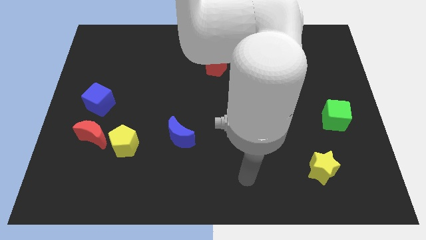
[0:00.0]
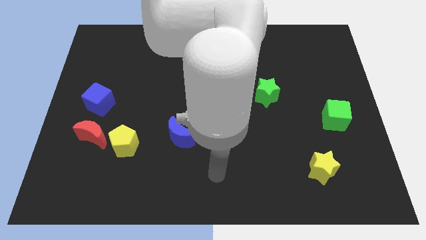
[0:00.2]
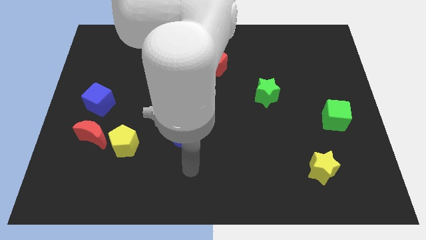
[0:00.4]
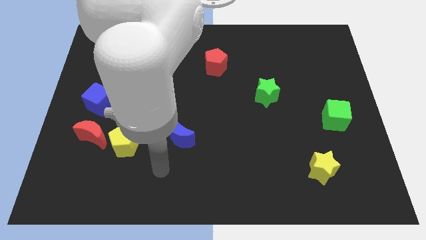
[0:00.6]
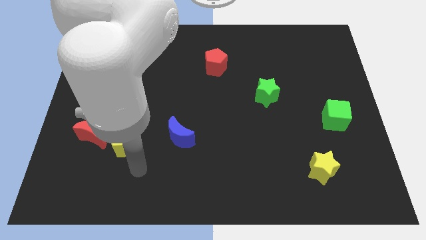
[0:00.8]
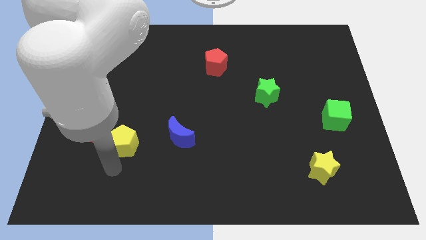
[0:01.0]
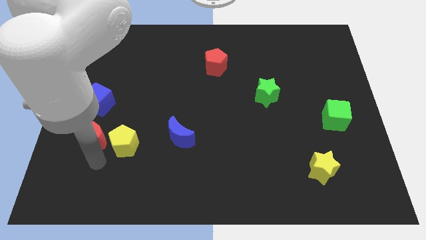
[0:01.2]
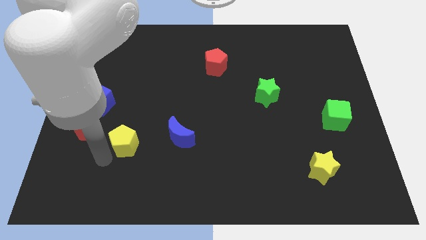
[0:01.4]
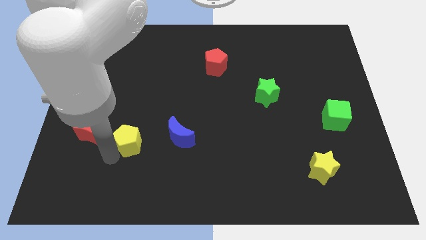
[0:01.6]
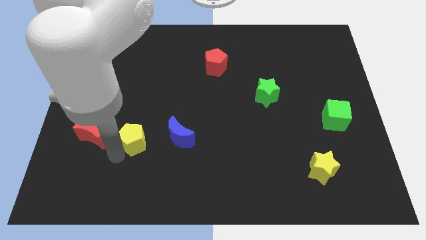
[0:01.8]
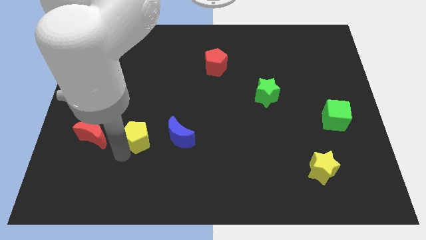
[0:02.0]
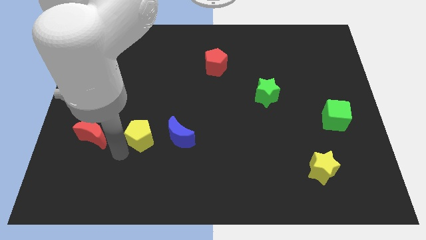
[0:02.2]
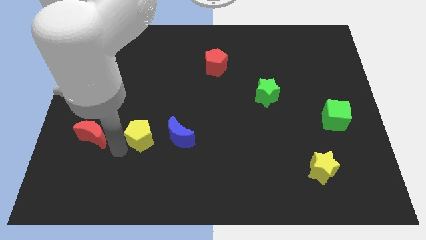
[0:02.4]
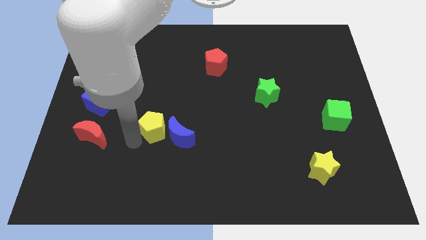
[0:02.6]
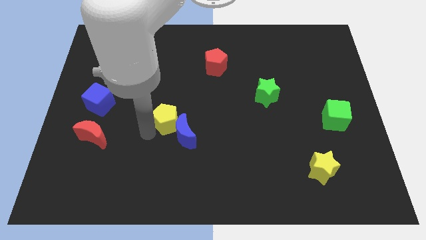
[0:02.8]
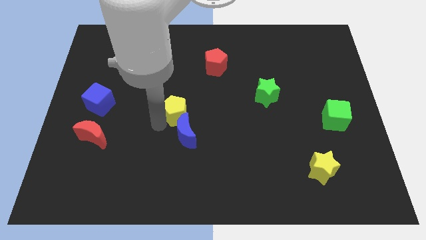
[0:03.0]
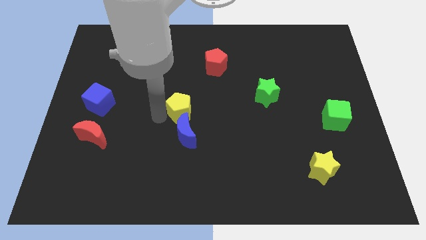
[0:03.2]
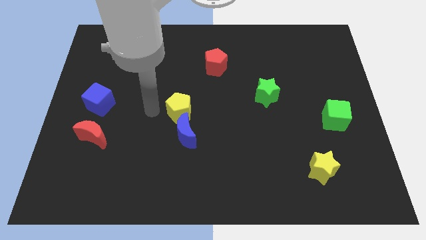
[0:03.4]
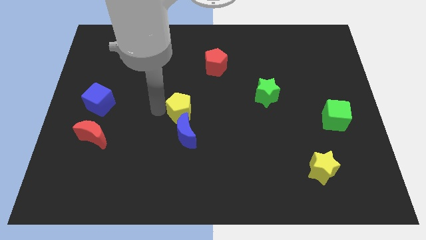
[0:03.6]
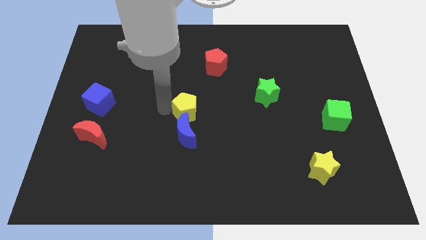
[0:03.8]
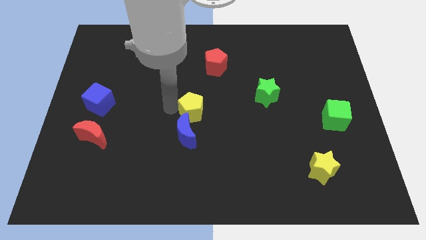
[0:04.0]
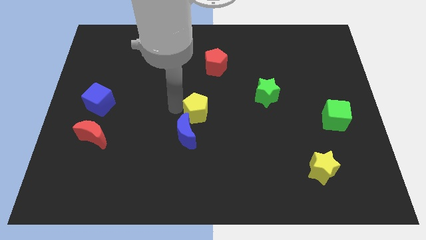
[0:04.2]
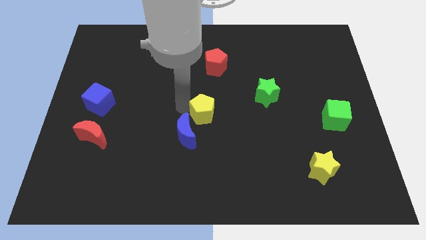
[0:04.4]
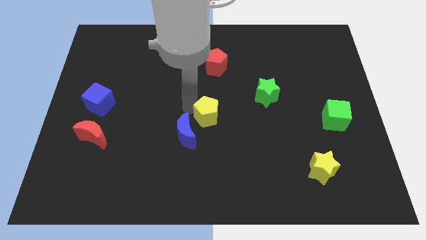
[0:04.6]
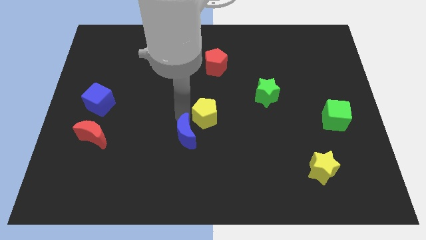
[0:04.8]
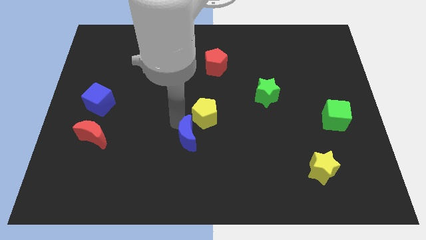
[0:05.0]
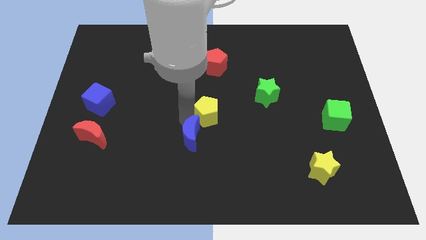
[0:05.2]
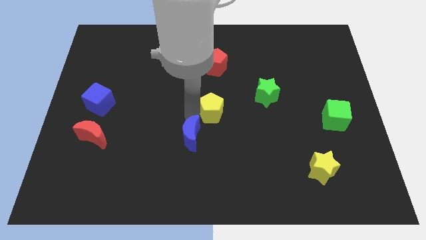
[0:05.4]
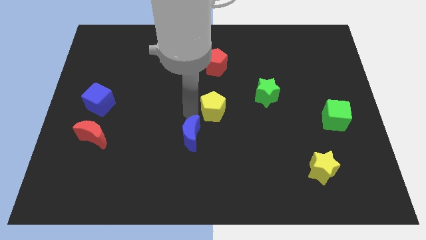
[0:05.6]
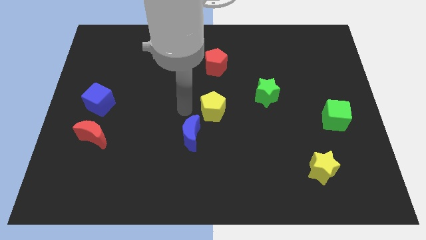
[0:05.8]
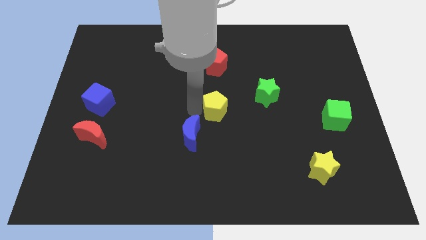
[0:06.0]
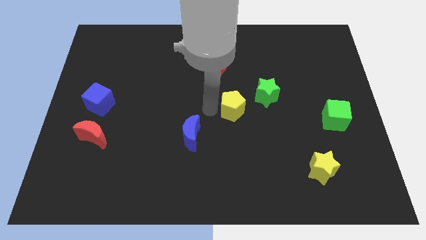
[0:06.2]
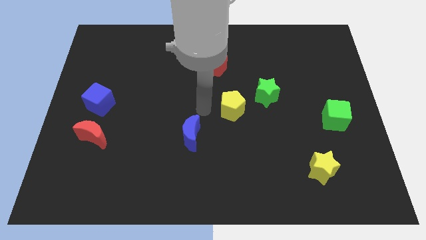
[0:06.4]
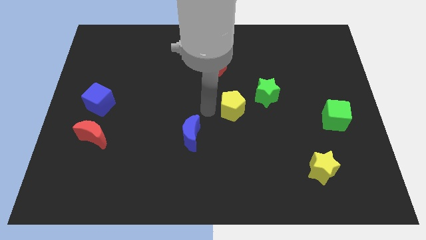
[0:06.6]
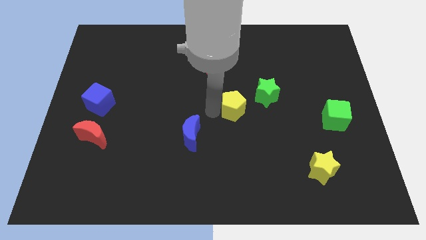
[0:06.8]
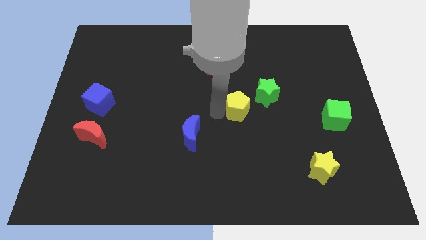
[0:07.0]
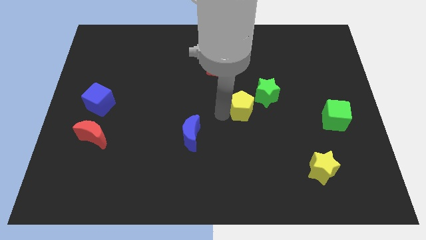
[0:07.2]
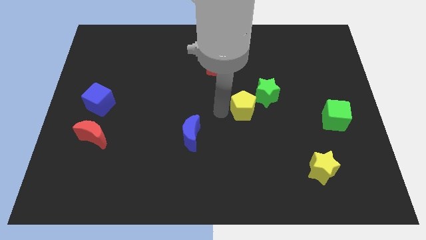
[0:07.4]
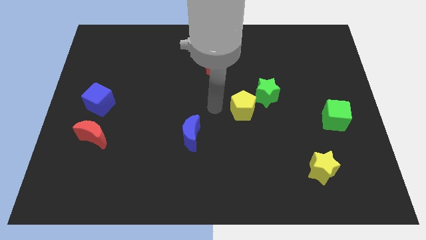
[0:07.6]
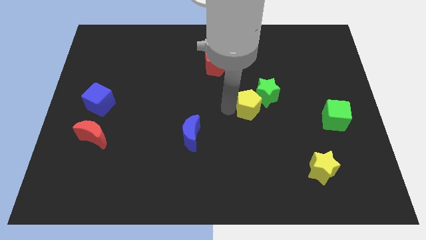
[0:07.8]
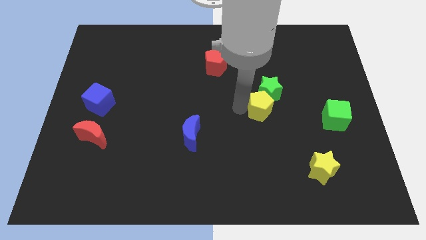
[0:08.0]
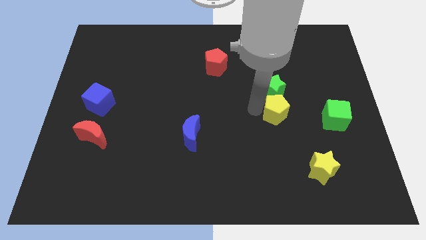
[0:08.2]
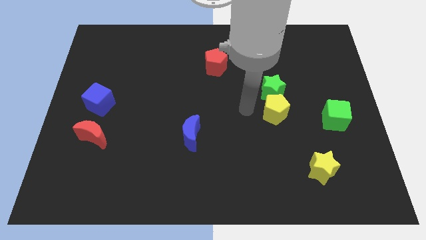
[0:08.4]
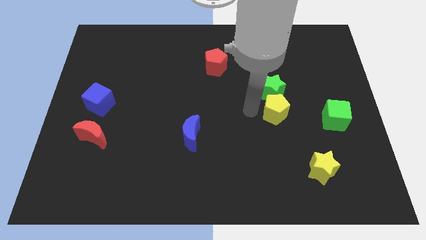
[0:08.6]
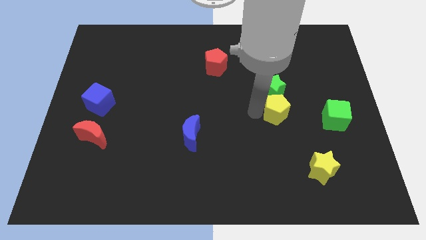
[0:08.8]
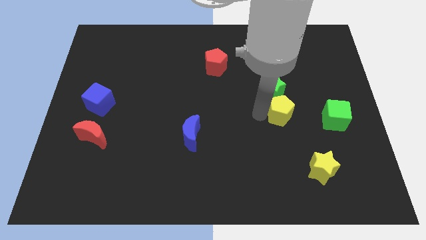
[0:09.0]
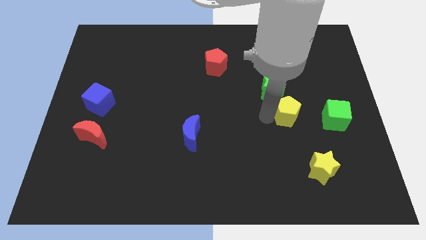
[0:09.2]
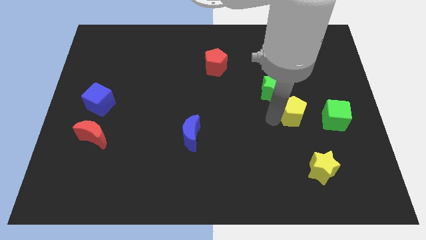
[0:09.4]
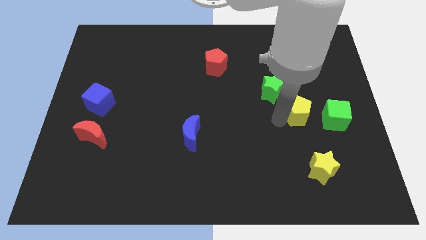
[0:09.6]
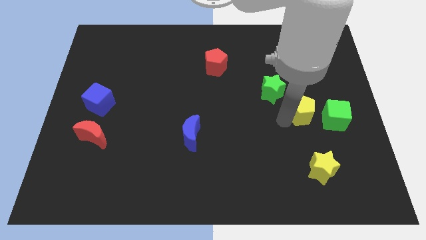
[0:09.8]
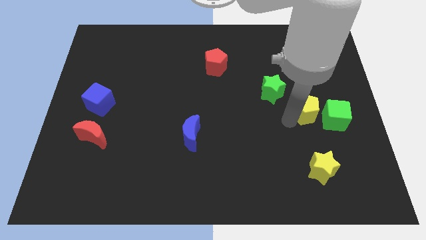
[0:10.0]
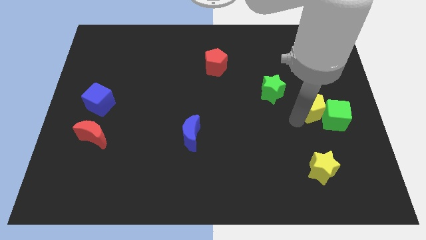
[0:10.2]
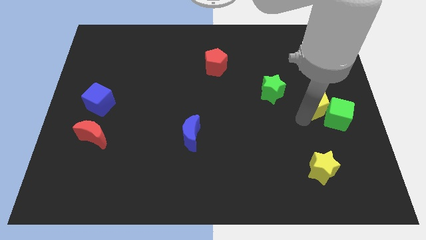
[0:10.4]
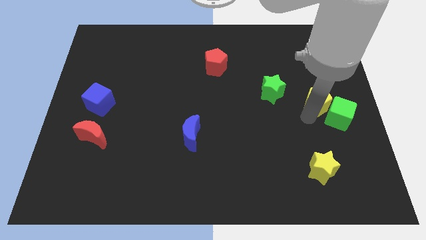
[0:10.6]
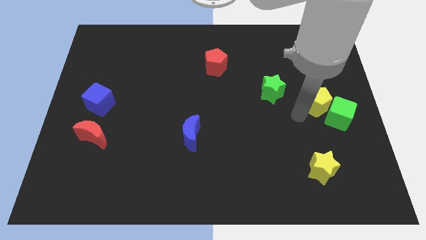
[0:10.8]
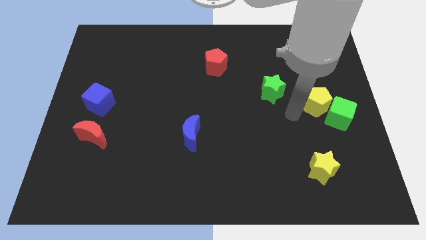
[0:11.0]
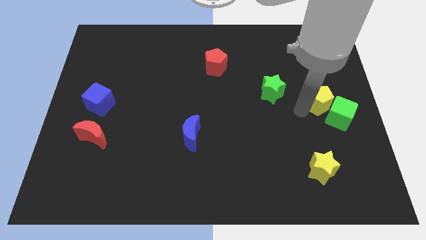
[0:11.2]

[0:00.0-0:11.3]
slide the yellow pentagon to the right side

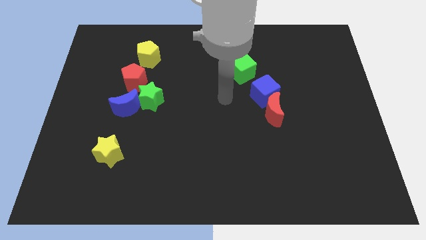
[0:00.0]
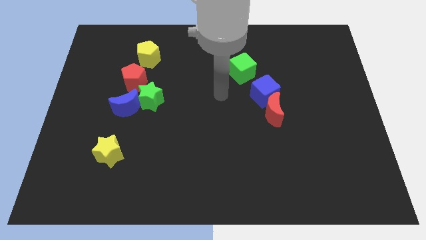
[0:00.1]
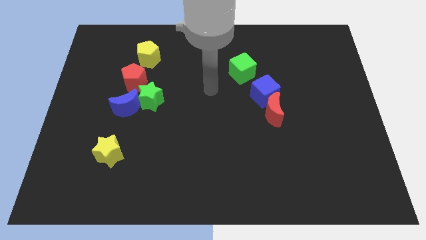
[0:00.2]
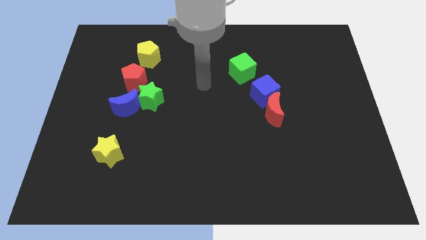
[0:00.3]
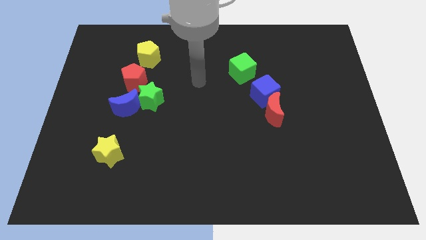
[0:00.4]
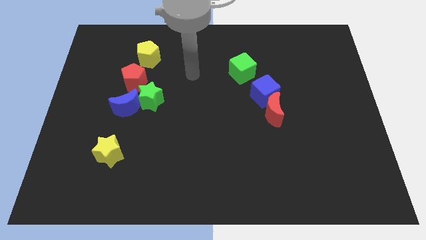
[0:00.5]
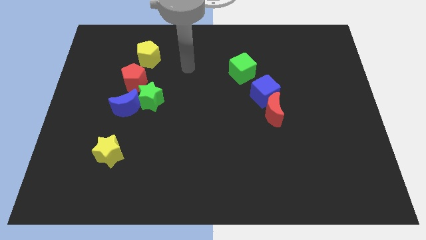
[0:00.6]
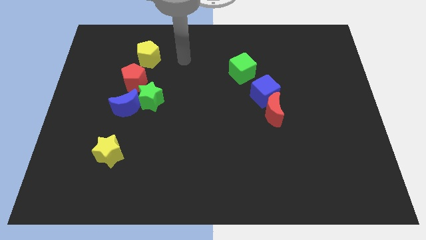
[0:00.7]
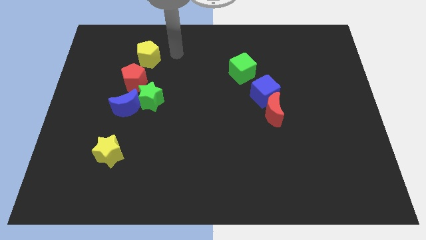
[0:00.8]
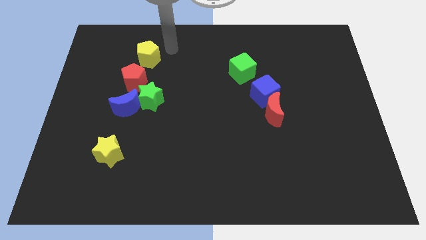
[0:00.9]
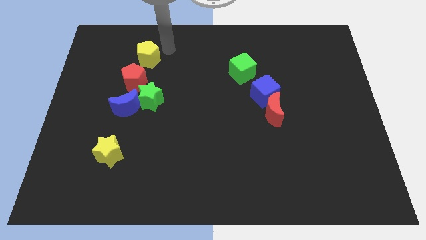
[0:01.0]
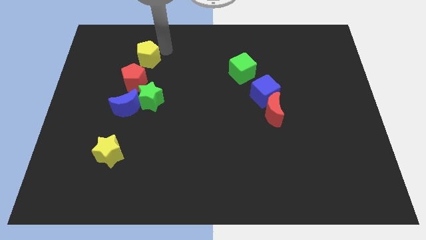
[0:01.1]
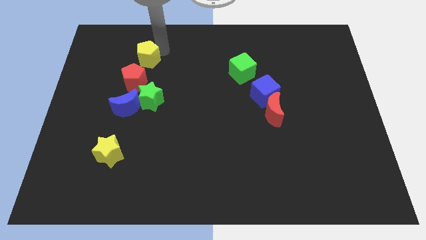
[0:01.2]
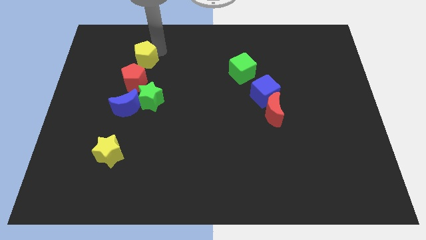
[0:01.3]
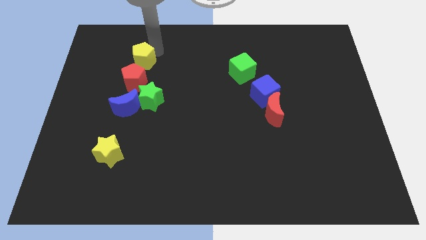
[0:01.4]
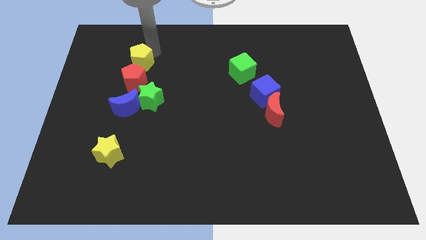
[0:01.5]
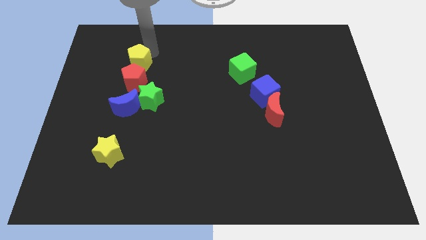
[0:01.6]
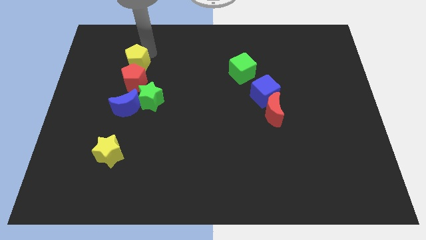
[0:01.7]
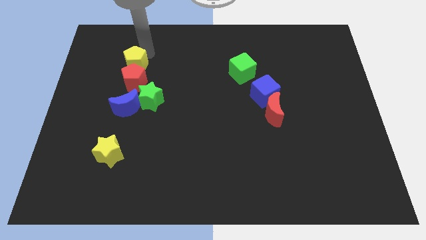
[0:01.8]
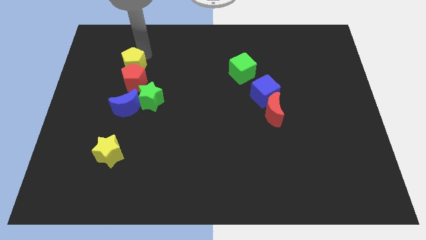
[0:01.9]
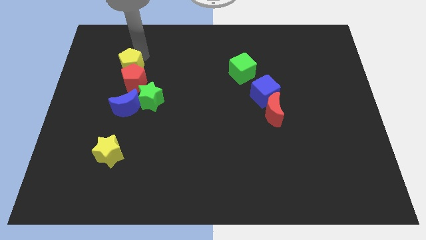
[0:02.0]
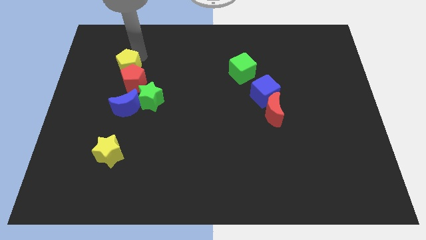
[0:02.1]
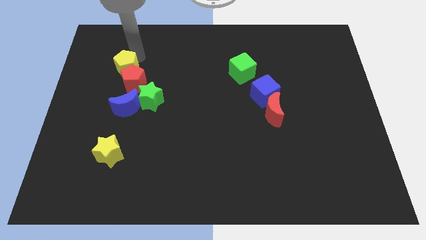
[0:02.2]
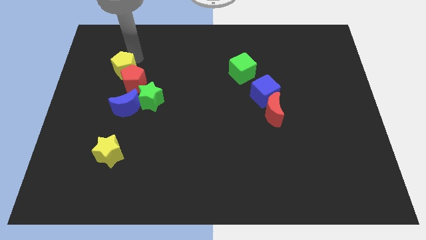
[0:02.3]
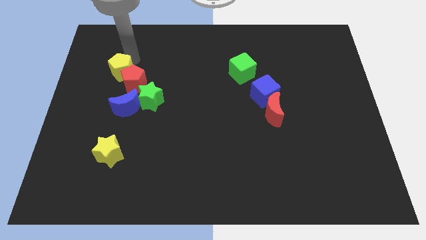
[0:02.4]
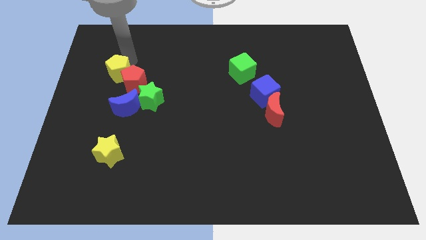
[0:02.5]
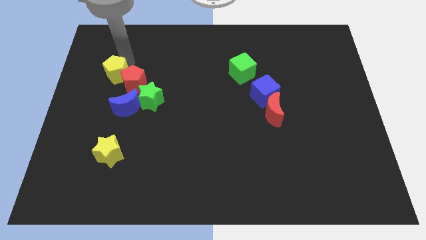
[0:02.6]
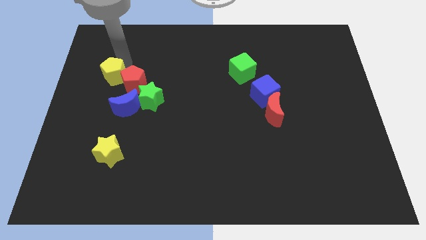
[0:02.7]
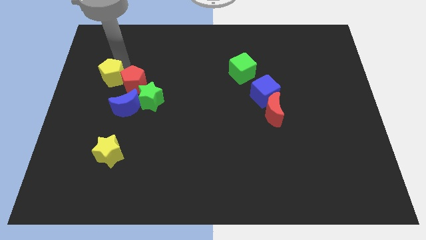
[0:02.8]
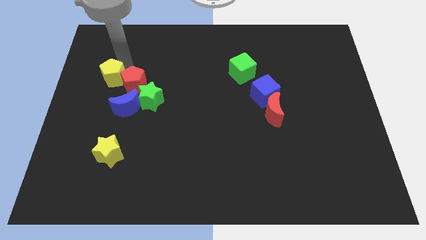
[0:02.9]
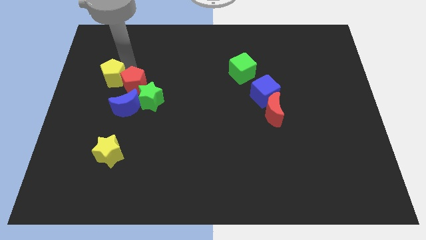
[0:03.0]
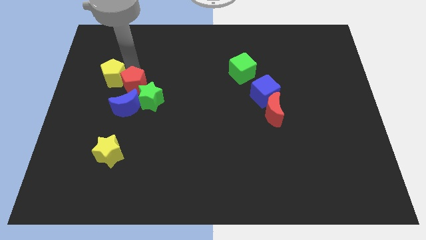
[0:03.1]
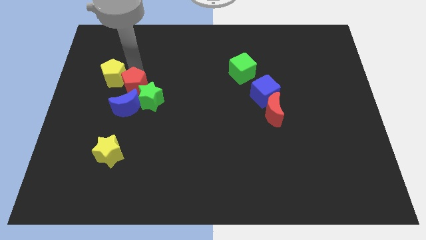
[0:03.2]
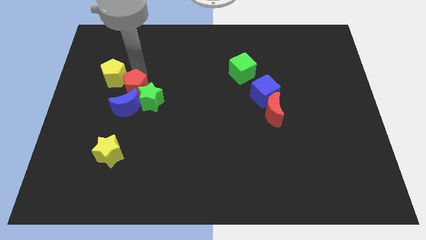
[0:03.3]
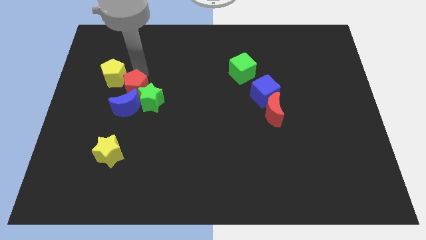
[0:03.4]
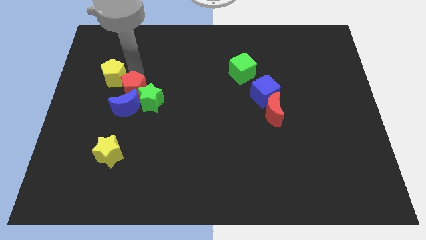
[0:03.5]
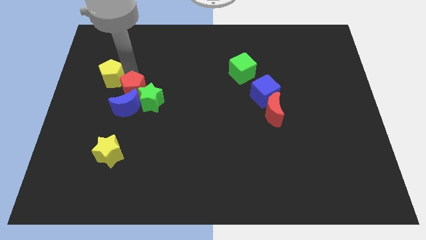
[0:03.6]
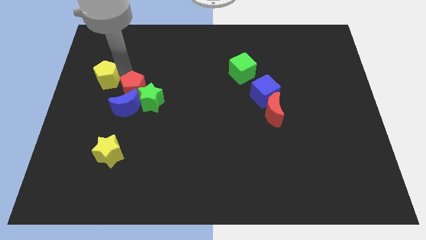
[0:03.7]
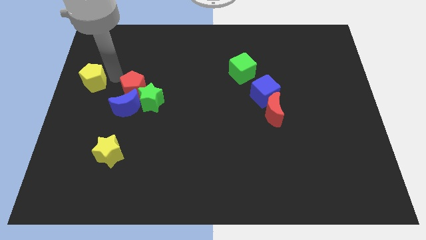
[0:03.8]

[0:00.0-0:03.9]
put the yellow pentagon to the left side of the board
